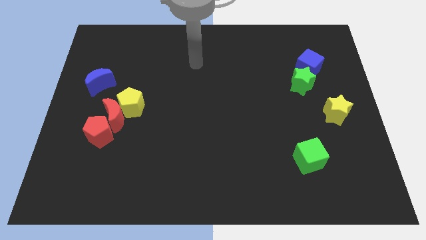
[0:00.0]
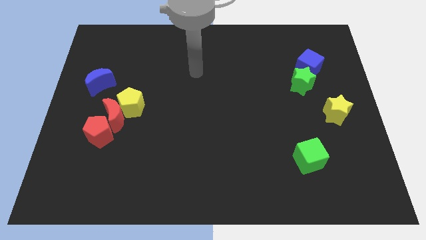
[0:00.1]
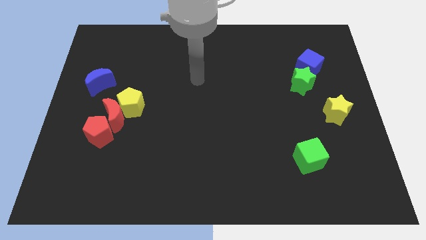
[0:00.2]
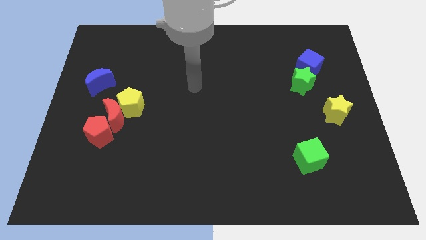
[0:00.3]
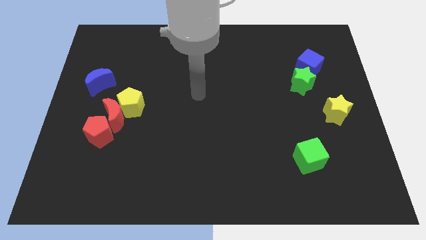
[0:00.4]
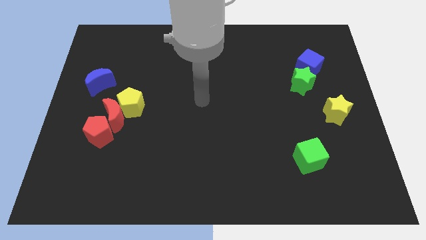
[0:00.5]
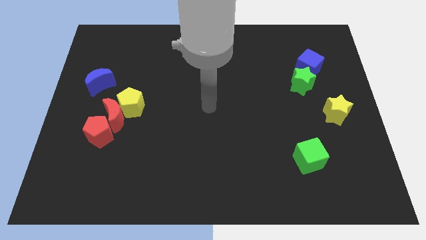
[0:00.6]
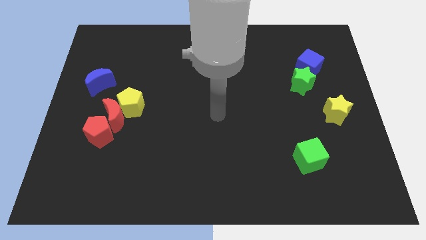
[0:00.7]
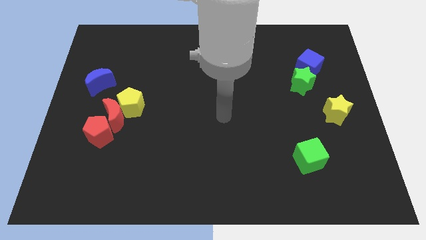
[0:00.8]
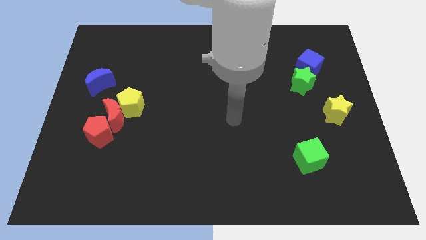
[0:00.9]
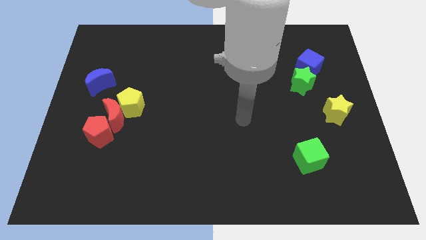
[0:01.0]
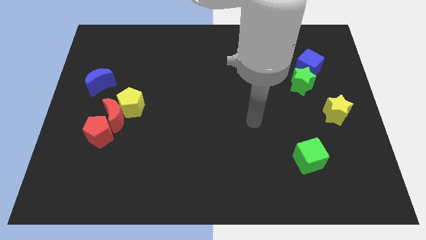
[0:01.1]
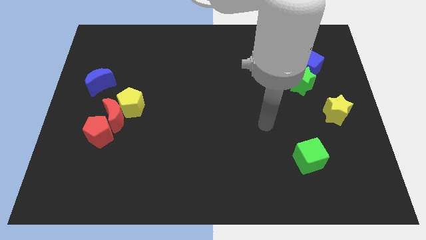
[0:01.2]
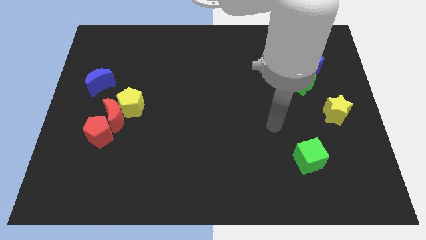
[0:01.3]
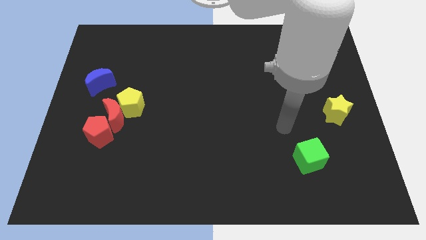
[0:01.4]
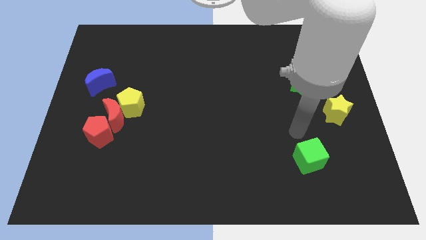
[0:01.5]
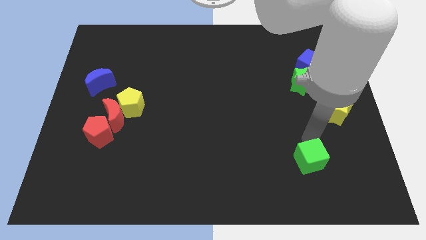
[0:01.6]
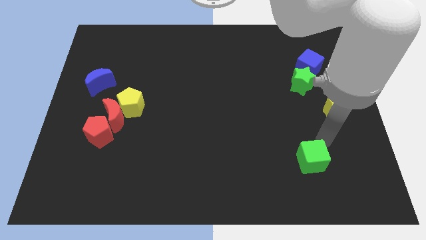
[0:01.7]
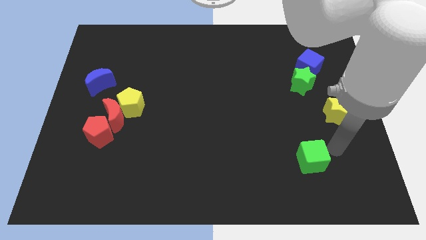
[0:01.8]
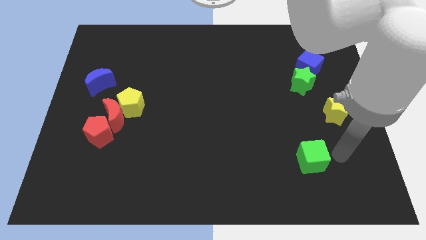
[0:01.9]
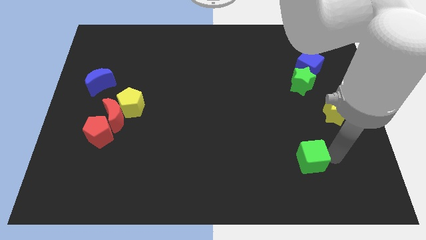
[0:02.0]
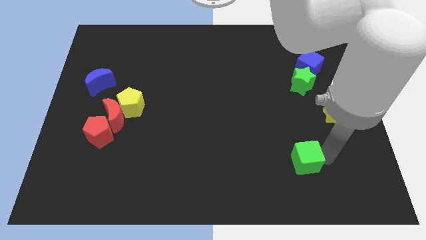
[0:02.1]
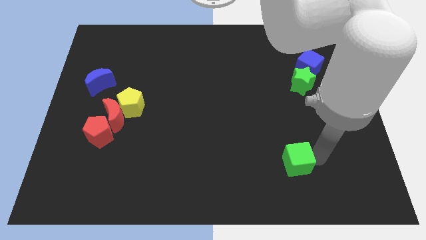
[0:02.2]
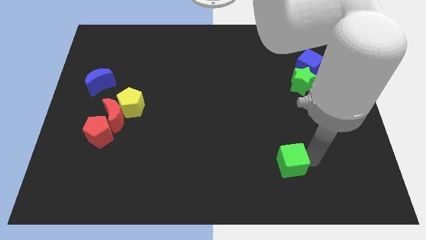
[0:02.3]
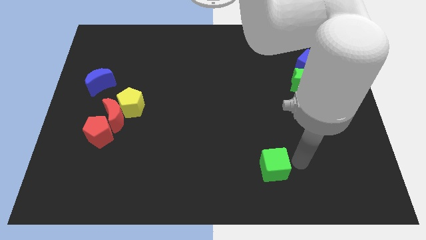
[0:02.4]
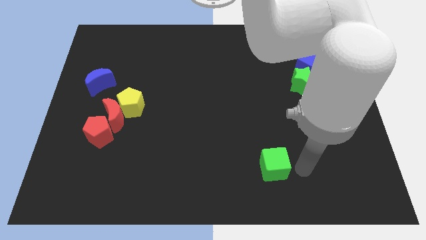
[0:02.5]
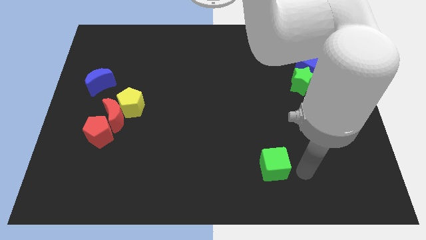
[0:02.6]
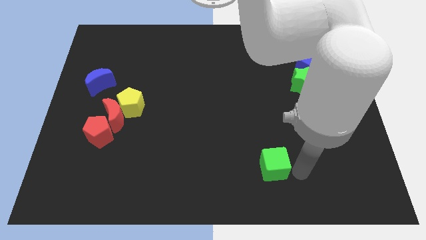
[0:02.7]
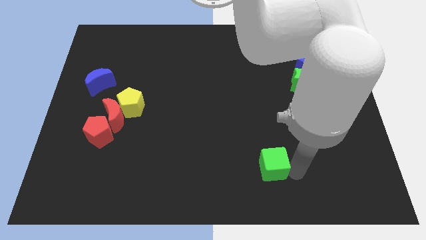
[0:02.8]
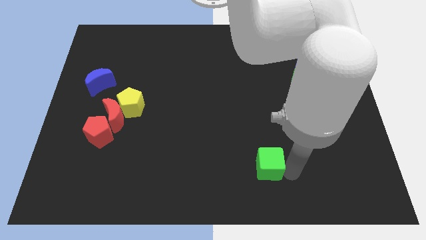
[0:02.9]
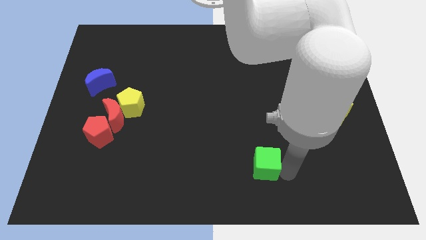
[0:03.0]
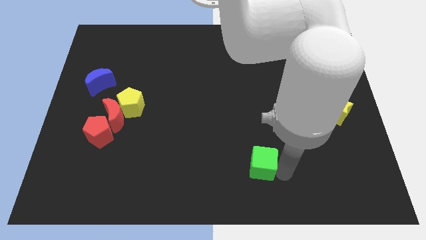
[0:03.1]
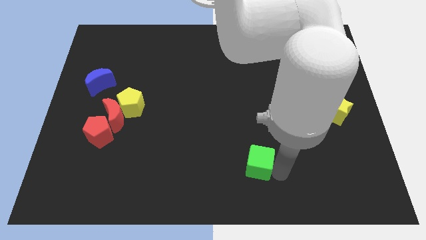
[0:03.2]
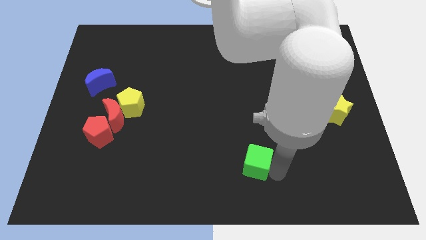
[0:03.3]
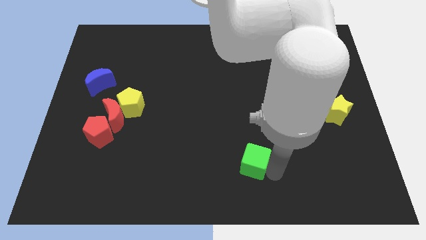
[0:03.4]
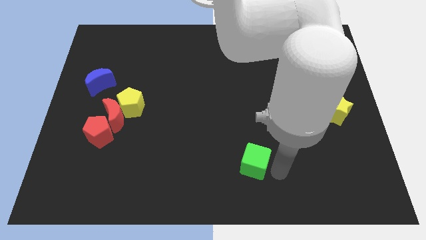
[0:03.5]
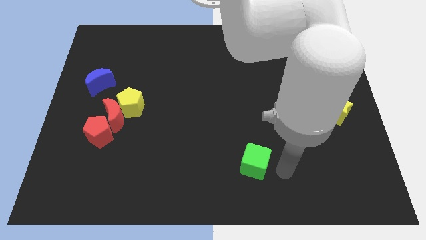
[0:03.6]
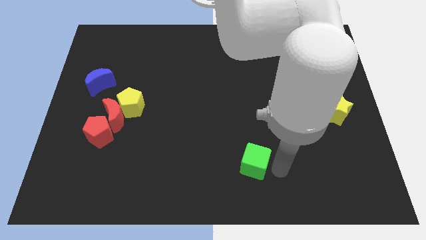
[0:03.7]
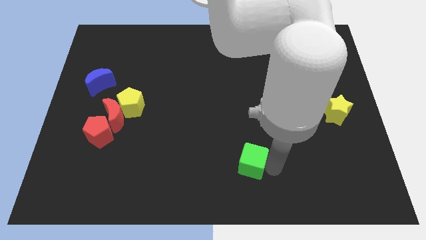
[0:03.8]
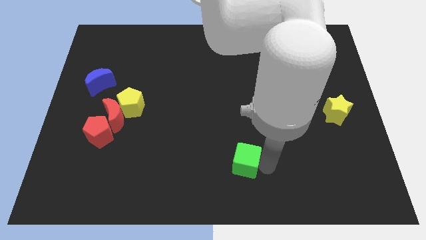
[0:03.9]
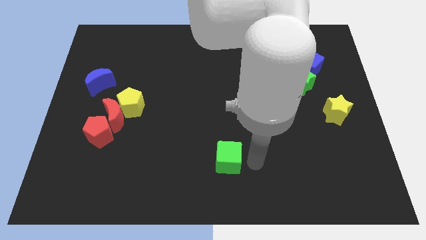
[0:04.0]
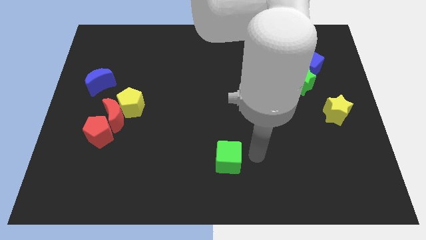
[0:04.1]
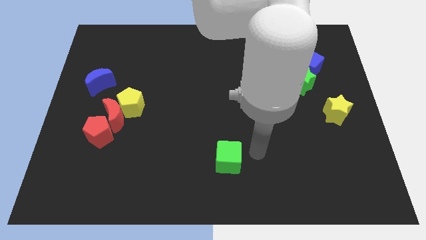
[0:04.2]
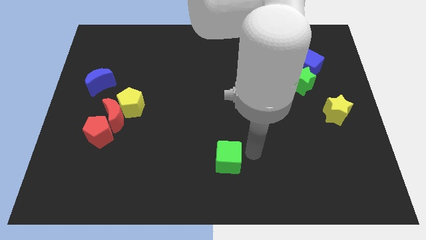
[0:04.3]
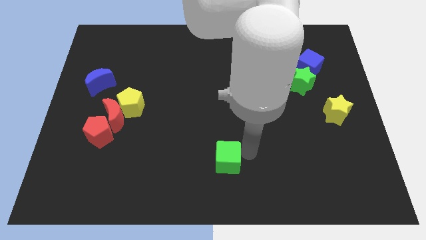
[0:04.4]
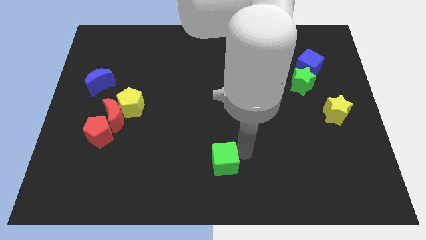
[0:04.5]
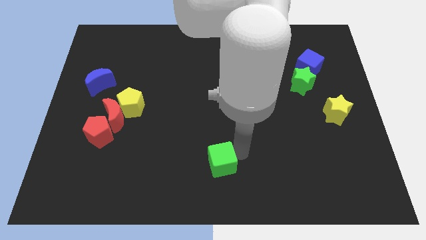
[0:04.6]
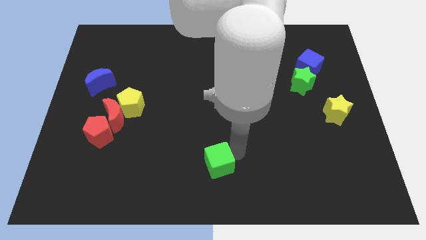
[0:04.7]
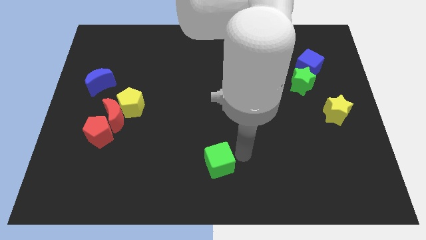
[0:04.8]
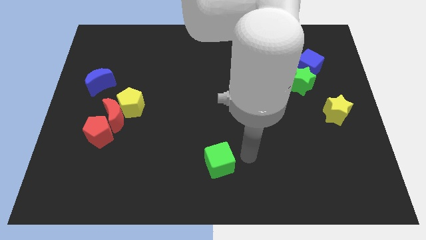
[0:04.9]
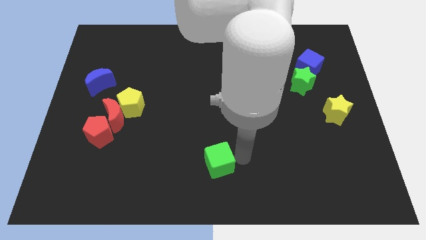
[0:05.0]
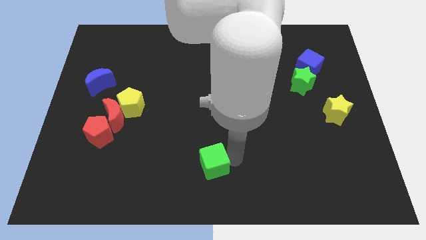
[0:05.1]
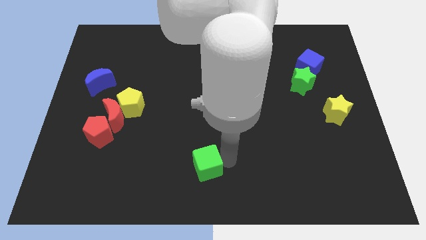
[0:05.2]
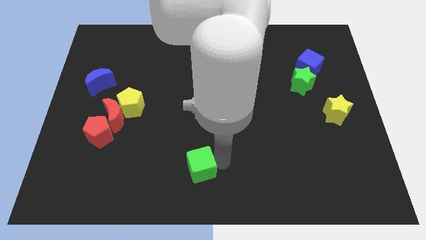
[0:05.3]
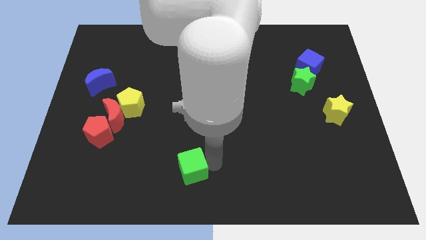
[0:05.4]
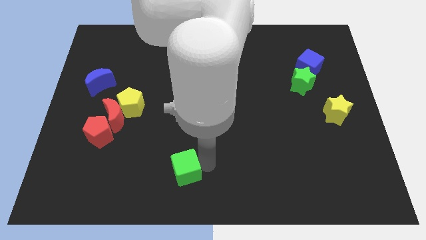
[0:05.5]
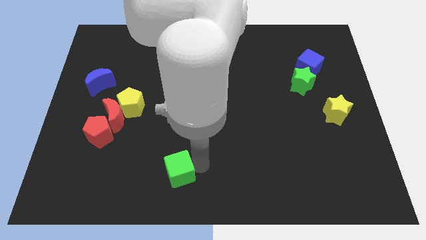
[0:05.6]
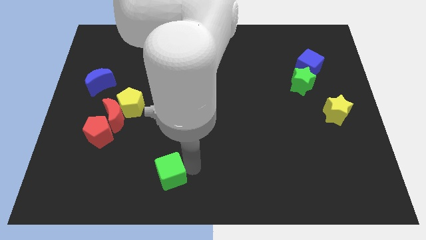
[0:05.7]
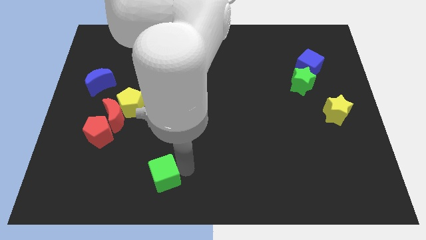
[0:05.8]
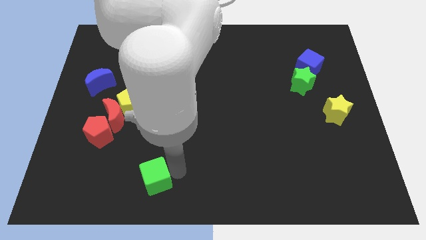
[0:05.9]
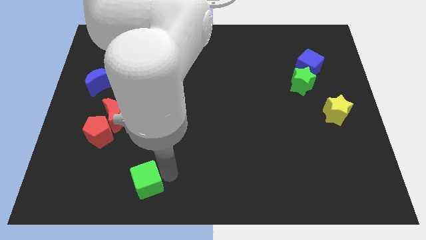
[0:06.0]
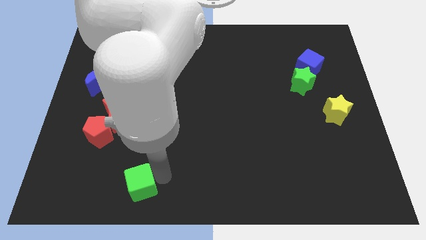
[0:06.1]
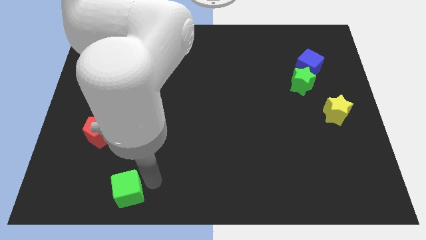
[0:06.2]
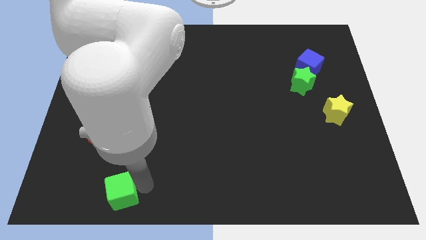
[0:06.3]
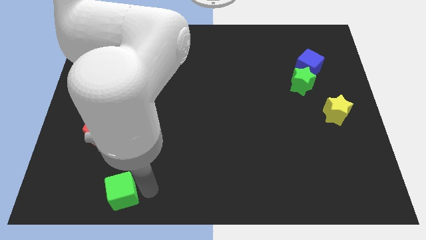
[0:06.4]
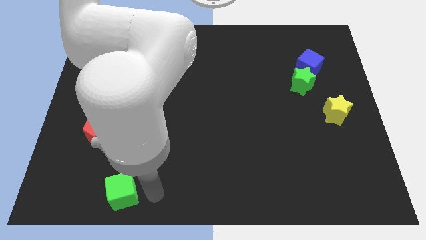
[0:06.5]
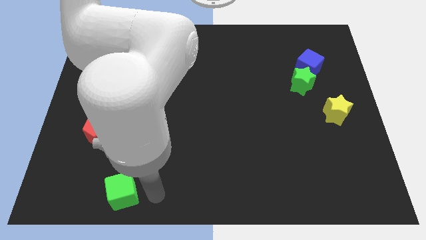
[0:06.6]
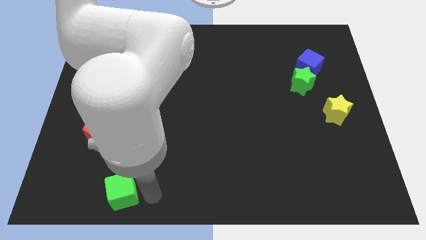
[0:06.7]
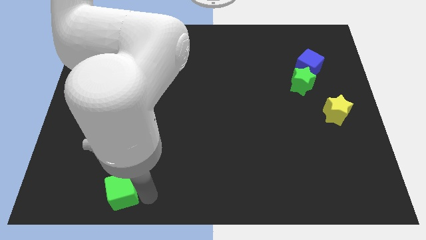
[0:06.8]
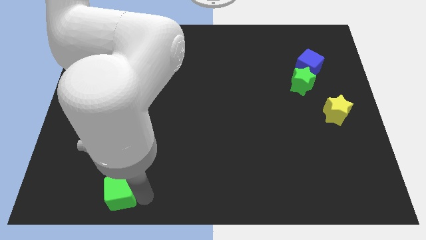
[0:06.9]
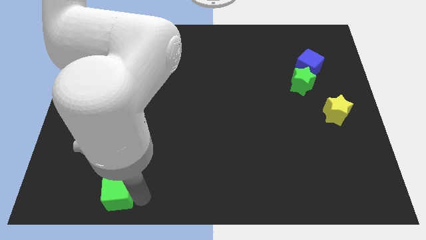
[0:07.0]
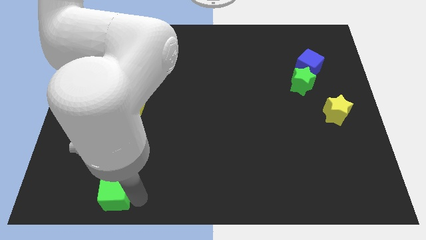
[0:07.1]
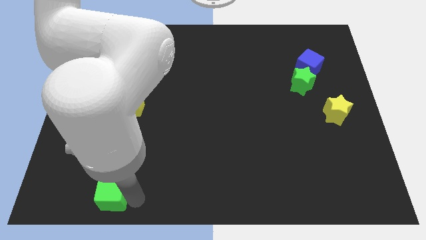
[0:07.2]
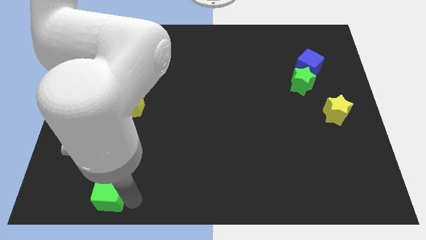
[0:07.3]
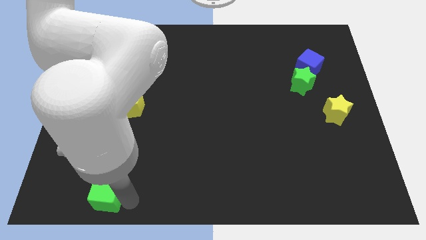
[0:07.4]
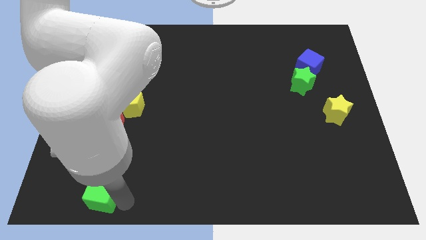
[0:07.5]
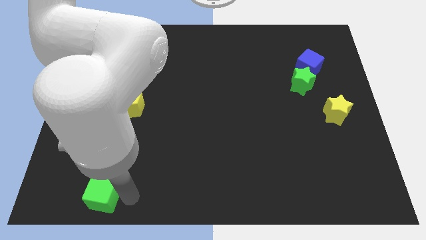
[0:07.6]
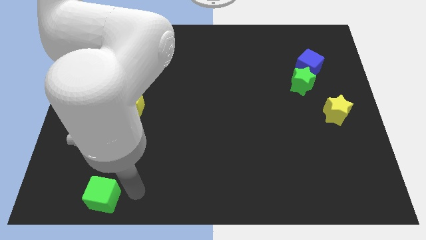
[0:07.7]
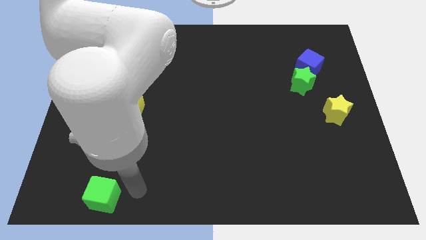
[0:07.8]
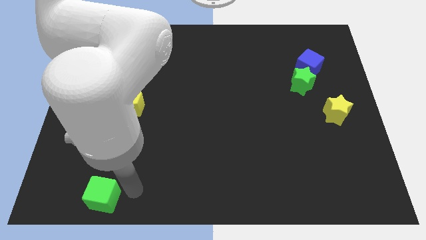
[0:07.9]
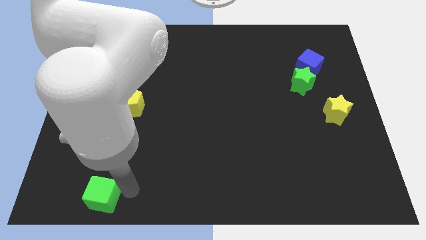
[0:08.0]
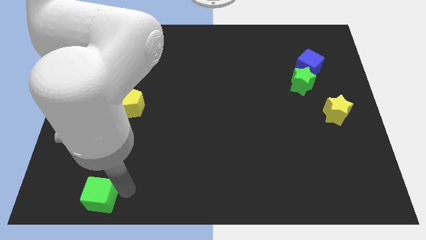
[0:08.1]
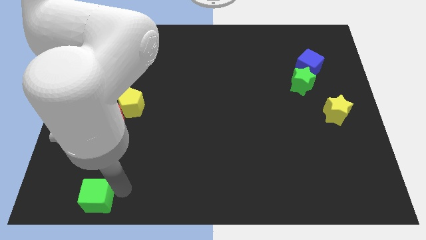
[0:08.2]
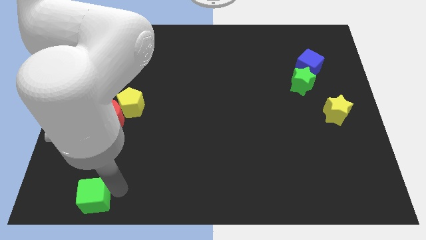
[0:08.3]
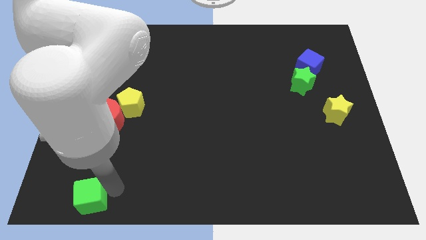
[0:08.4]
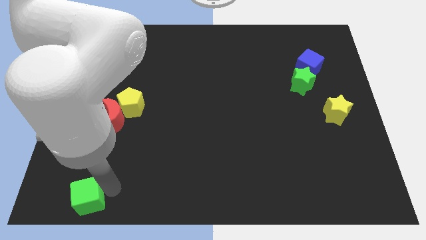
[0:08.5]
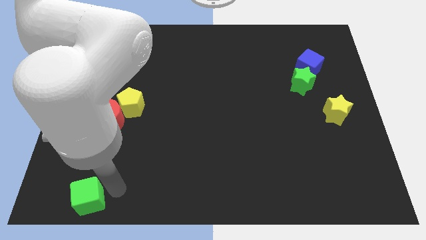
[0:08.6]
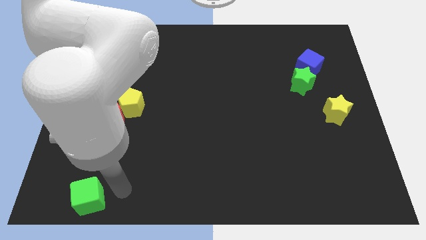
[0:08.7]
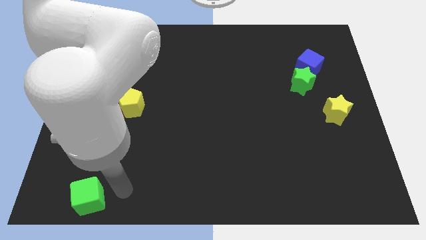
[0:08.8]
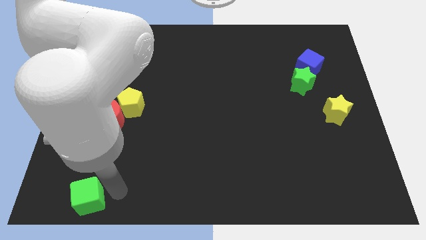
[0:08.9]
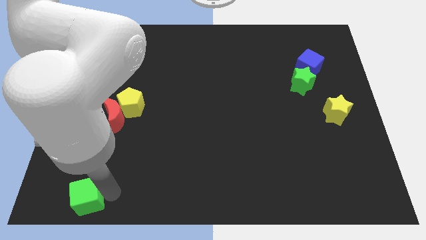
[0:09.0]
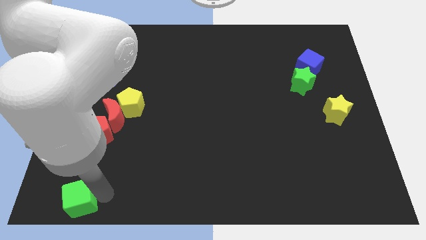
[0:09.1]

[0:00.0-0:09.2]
put the green cube to the lower left corner
